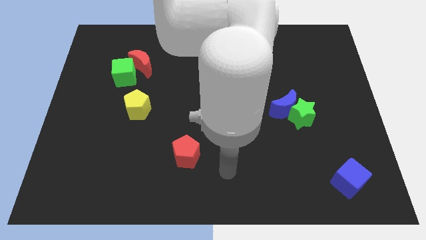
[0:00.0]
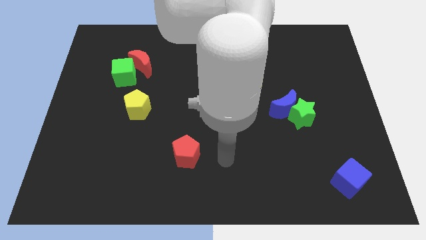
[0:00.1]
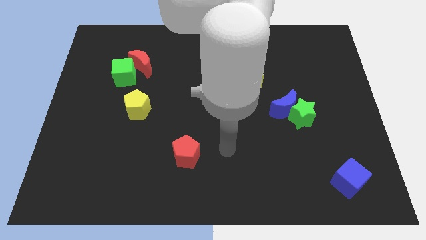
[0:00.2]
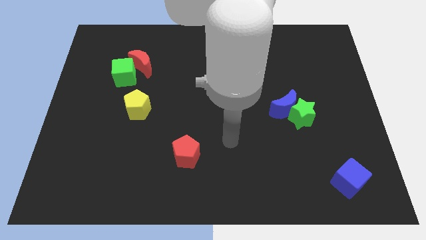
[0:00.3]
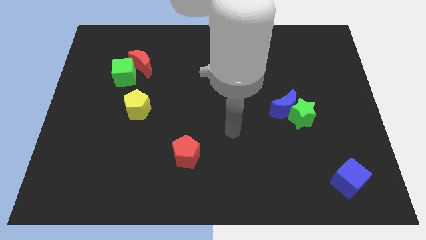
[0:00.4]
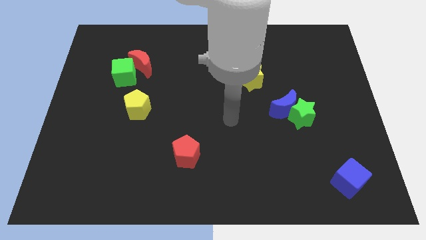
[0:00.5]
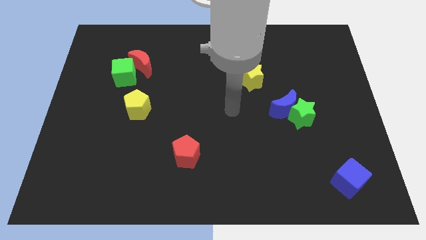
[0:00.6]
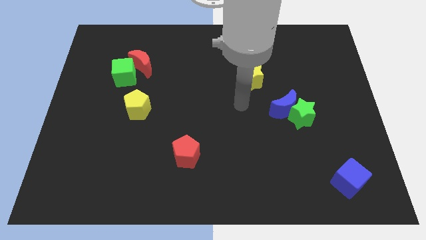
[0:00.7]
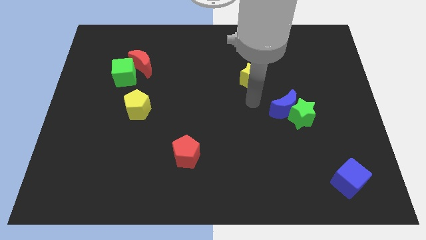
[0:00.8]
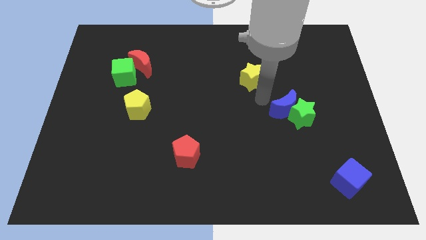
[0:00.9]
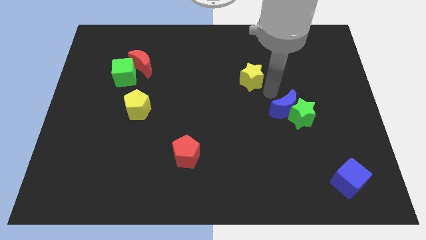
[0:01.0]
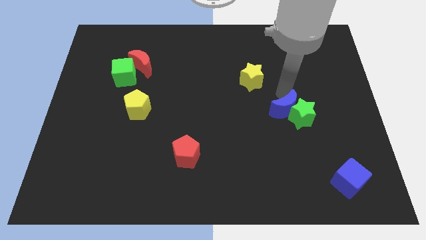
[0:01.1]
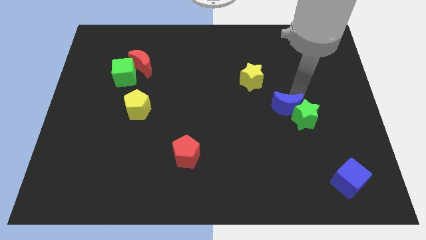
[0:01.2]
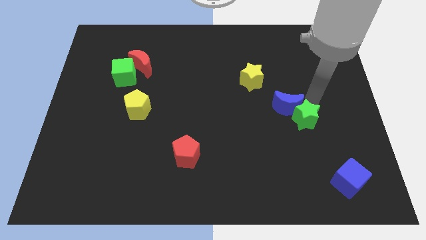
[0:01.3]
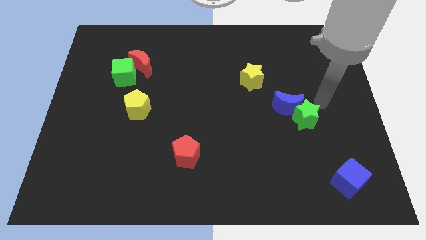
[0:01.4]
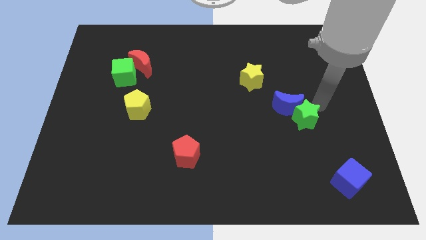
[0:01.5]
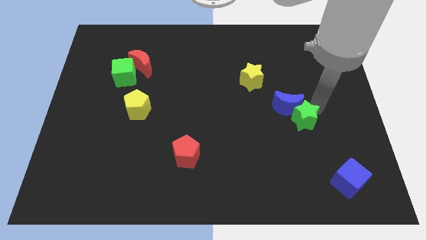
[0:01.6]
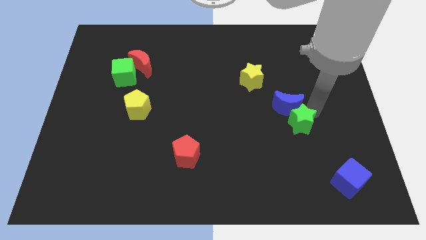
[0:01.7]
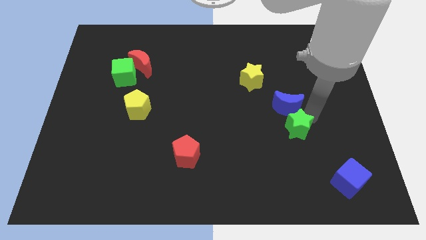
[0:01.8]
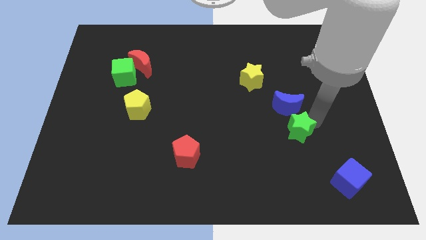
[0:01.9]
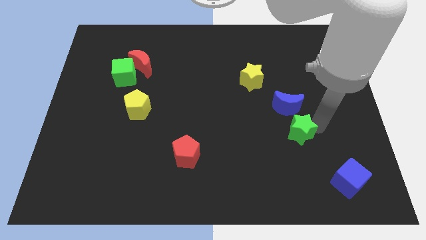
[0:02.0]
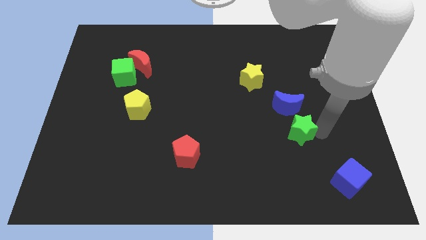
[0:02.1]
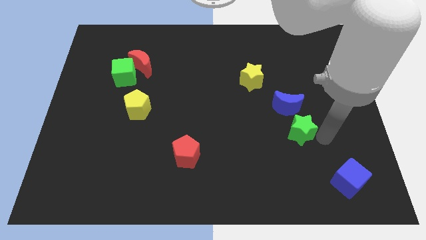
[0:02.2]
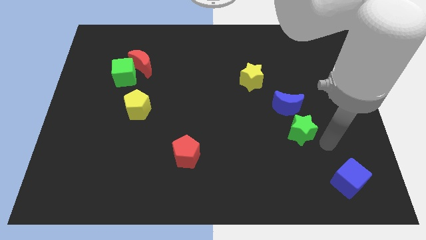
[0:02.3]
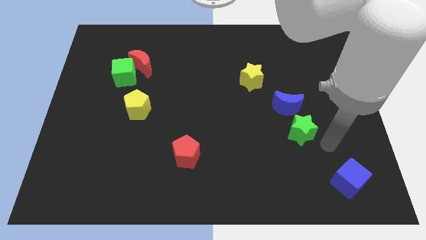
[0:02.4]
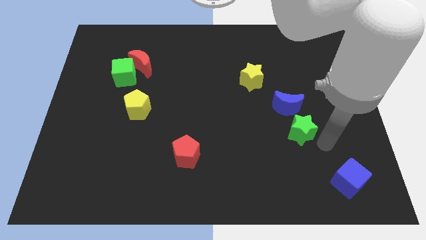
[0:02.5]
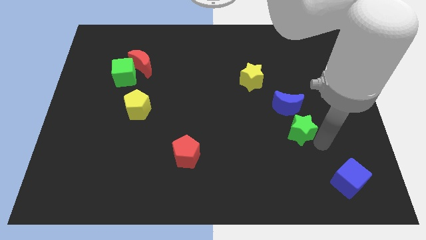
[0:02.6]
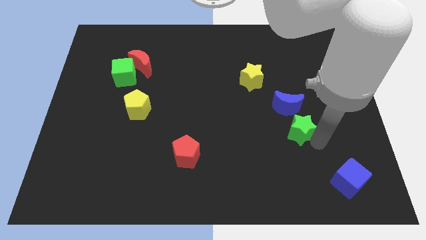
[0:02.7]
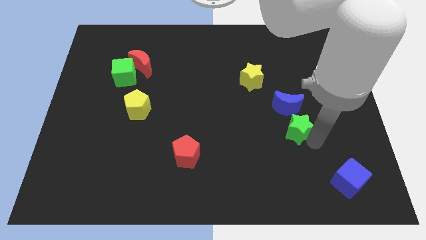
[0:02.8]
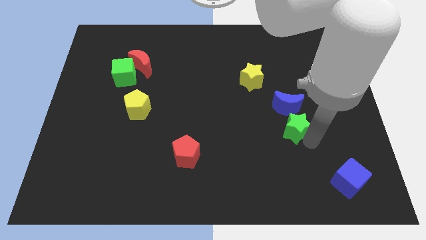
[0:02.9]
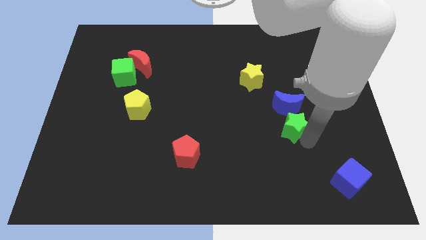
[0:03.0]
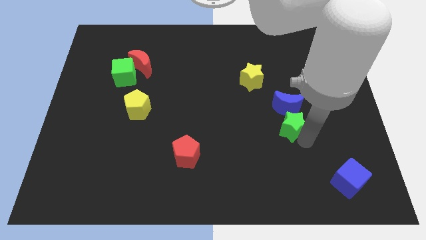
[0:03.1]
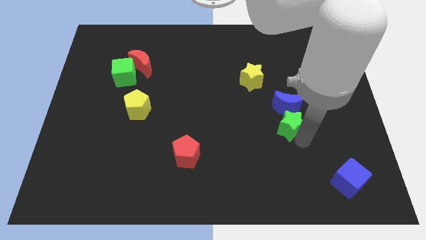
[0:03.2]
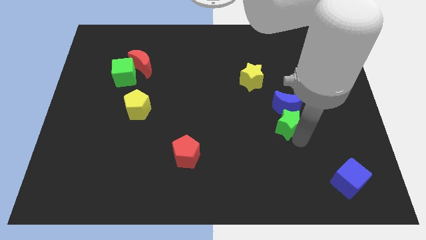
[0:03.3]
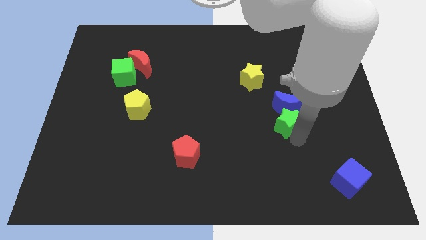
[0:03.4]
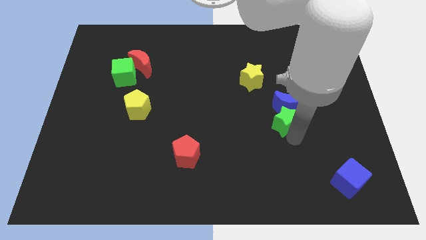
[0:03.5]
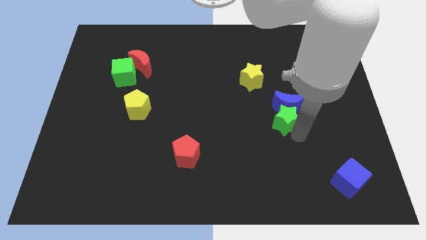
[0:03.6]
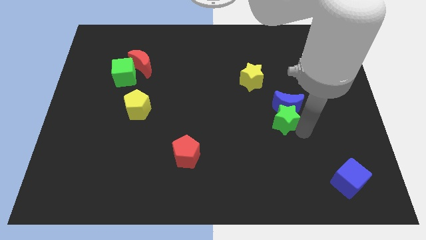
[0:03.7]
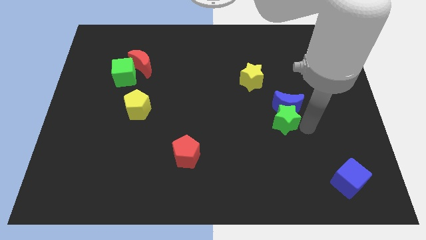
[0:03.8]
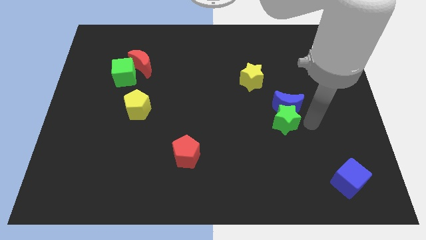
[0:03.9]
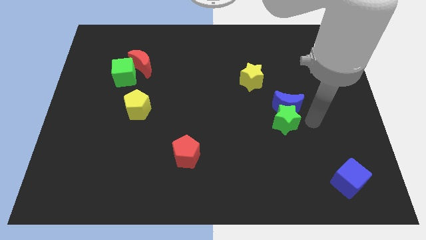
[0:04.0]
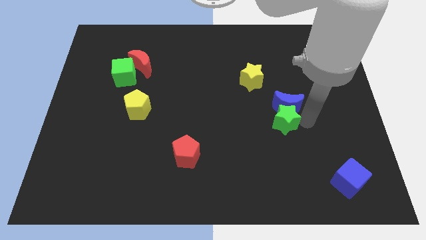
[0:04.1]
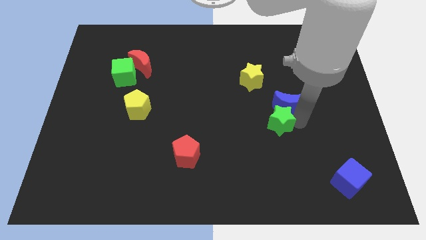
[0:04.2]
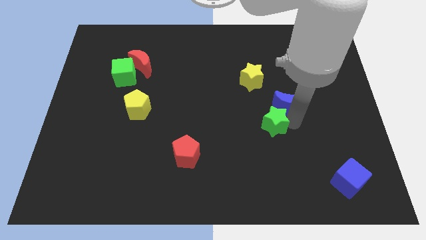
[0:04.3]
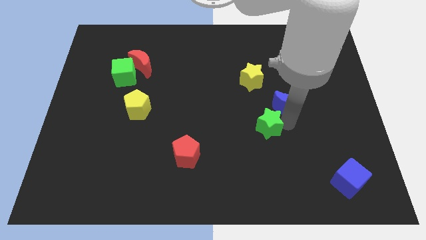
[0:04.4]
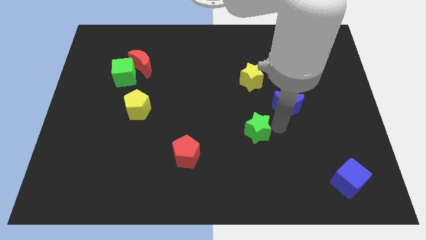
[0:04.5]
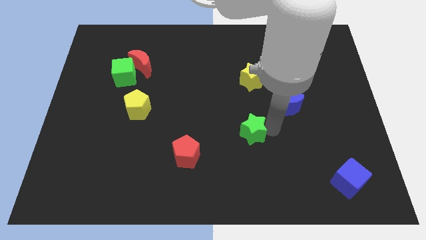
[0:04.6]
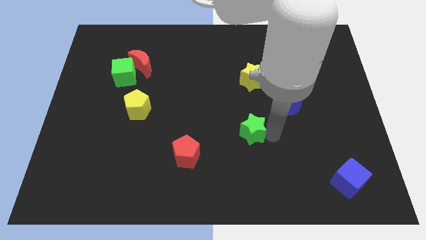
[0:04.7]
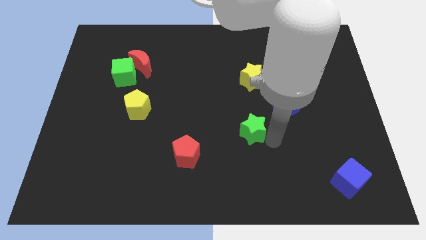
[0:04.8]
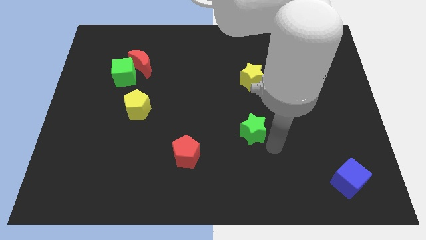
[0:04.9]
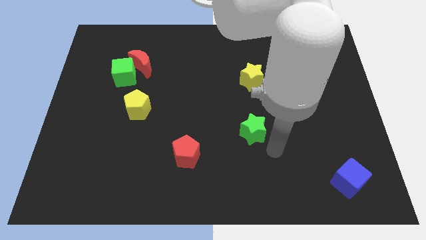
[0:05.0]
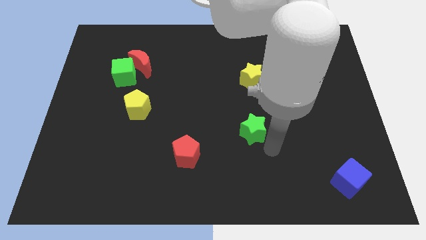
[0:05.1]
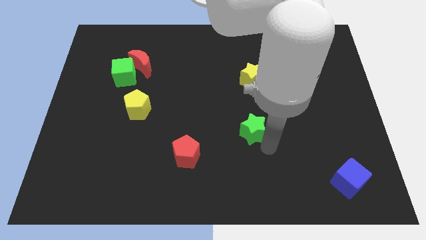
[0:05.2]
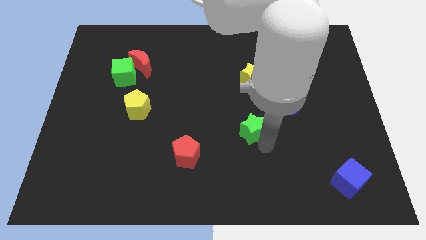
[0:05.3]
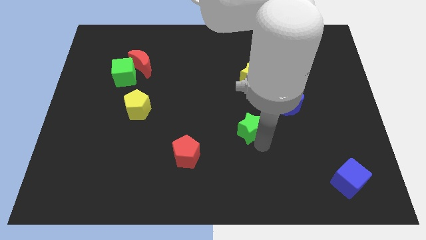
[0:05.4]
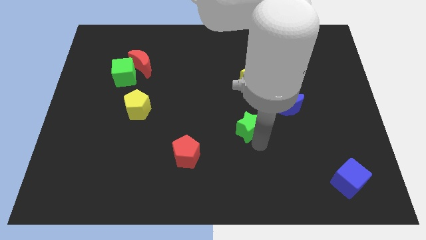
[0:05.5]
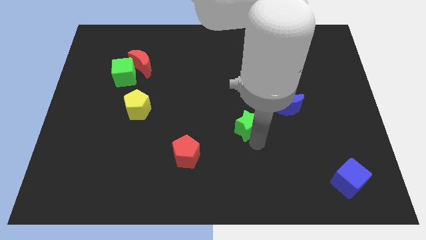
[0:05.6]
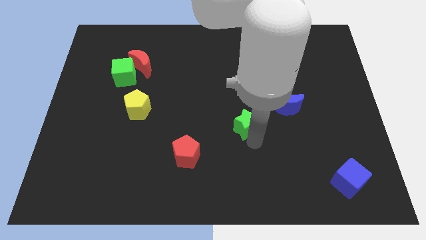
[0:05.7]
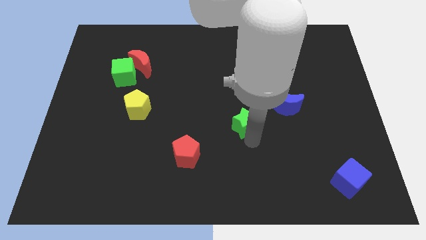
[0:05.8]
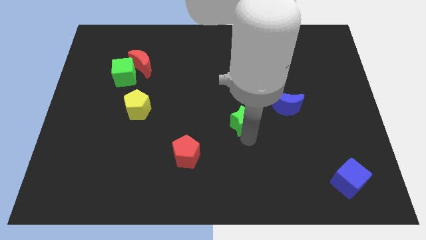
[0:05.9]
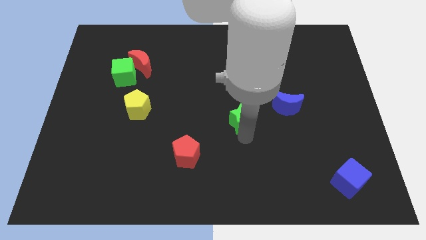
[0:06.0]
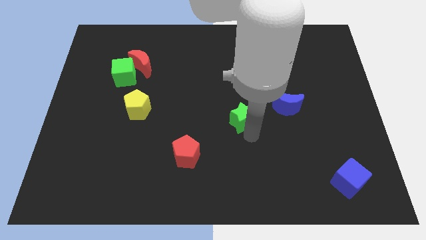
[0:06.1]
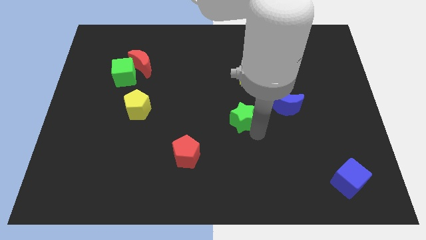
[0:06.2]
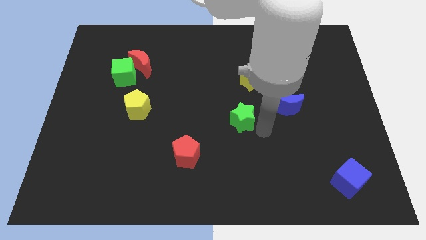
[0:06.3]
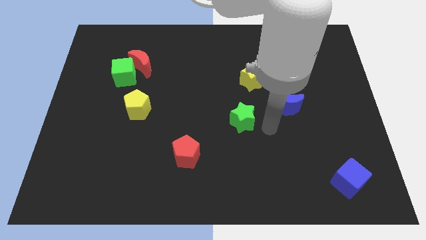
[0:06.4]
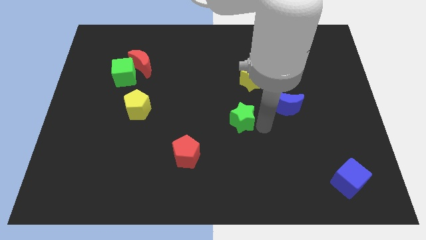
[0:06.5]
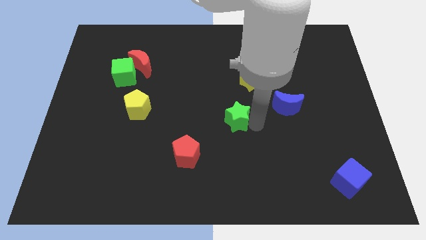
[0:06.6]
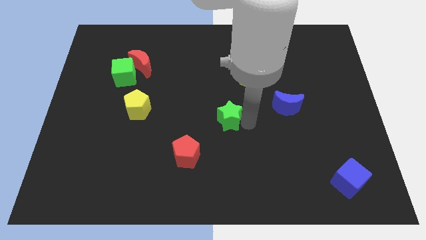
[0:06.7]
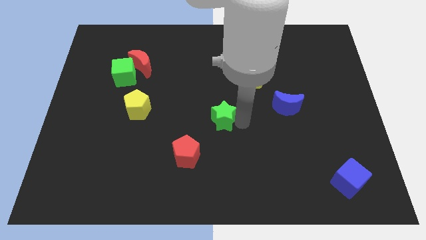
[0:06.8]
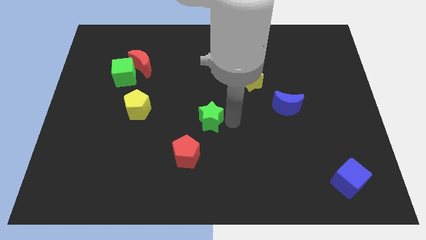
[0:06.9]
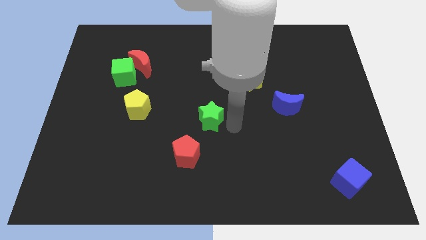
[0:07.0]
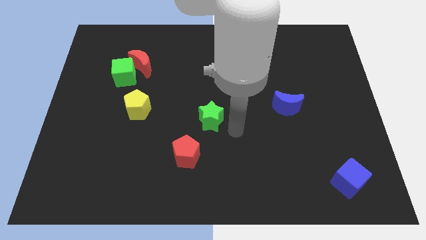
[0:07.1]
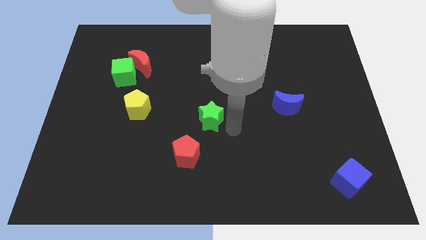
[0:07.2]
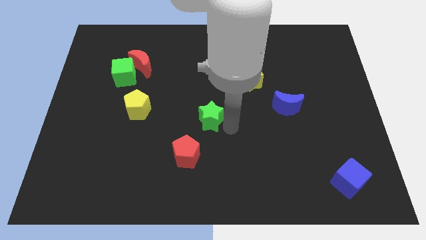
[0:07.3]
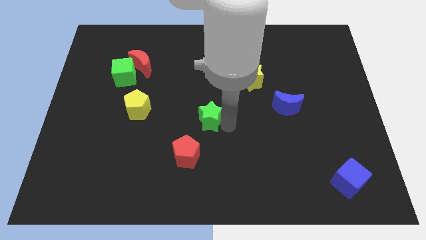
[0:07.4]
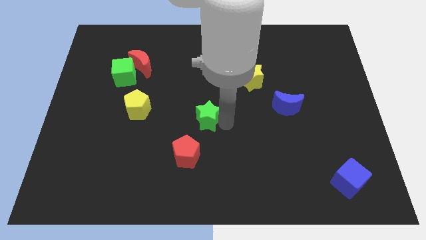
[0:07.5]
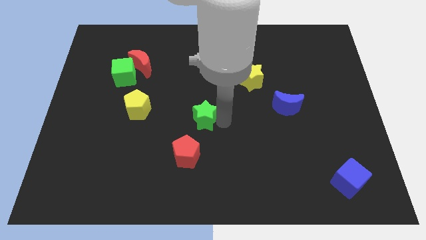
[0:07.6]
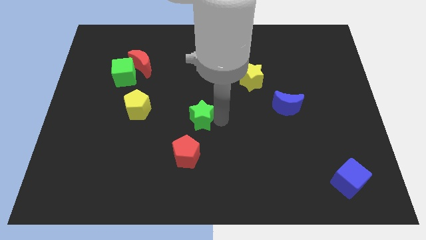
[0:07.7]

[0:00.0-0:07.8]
slide the green star just right of the yellow pentagon
